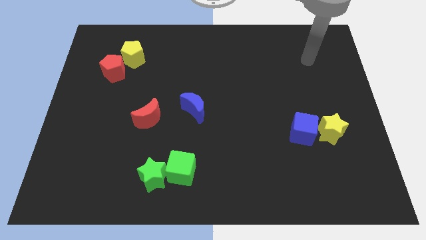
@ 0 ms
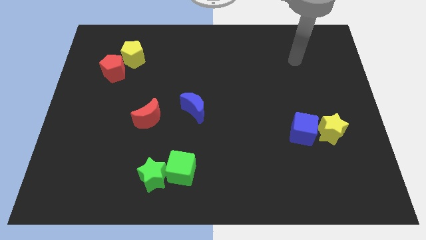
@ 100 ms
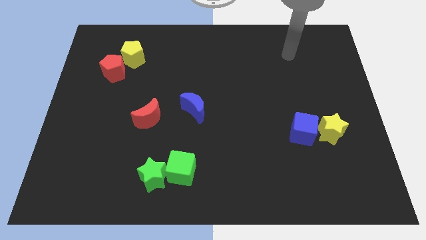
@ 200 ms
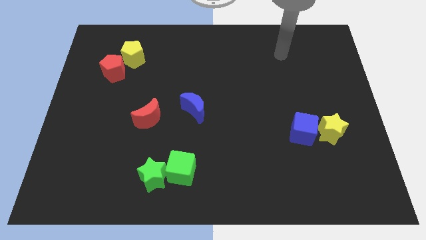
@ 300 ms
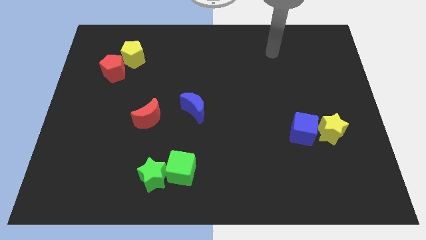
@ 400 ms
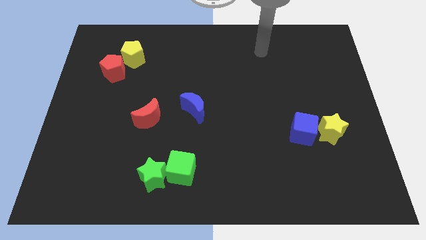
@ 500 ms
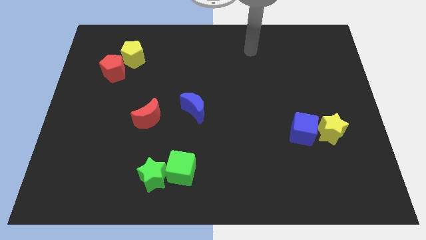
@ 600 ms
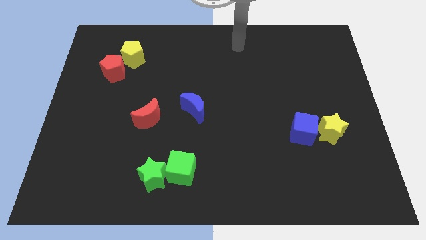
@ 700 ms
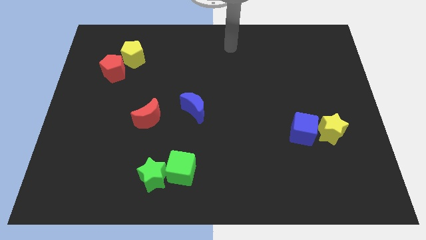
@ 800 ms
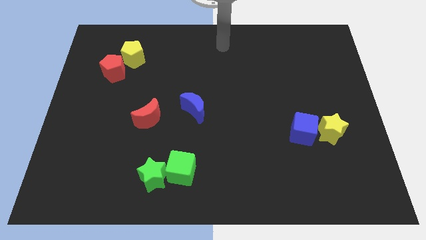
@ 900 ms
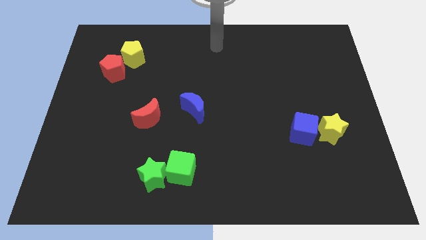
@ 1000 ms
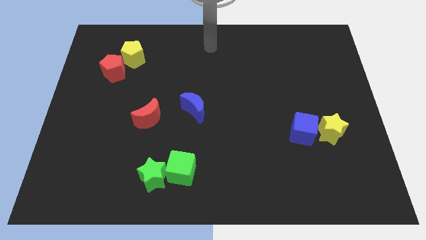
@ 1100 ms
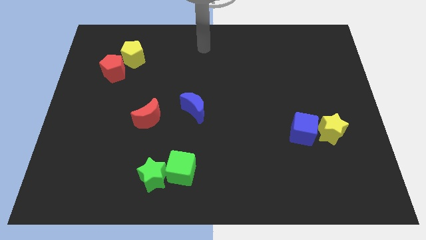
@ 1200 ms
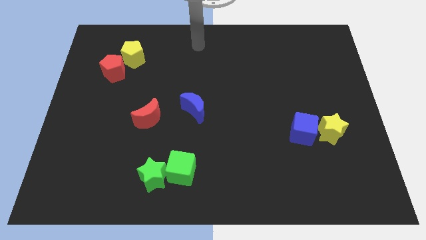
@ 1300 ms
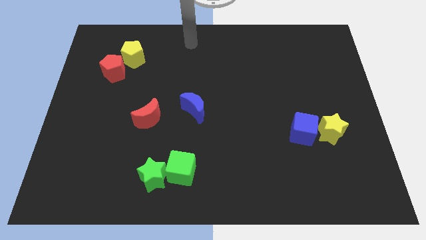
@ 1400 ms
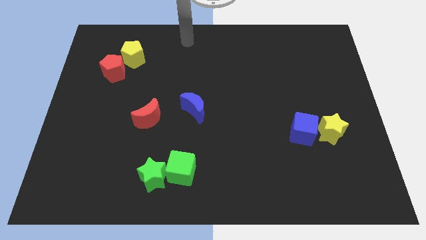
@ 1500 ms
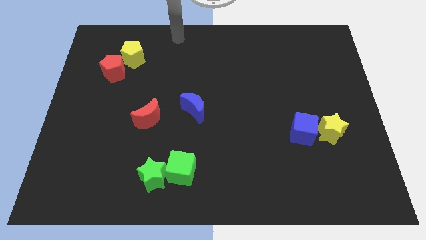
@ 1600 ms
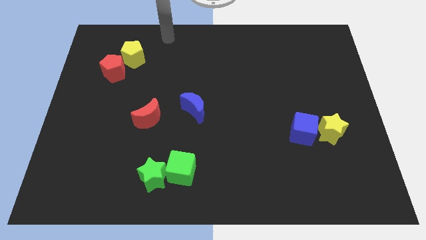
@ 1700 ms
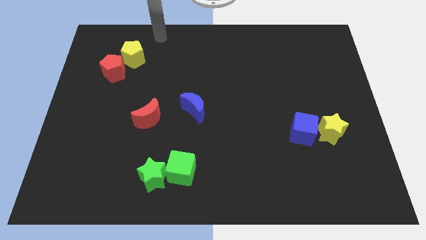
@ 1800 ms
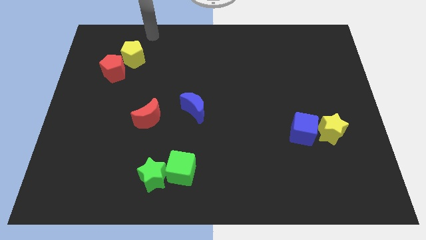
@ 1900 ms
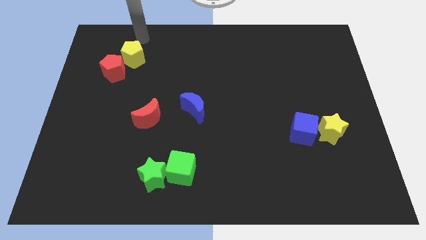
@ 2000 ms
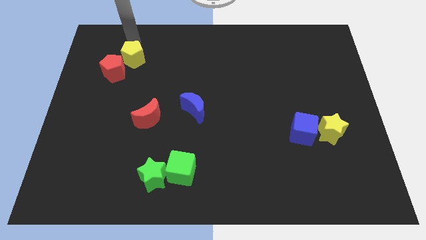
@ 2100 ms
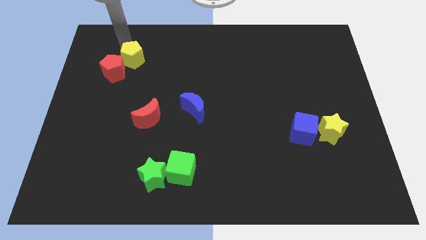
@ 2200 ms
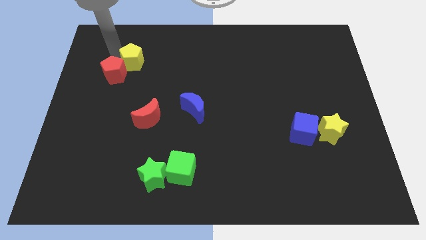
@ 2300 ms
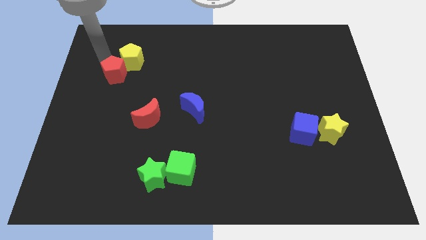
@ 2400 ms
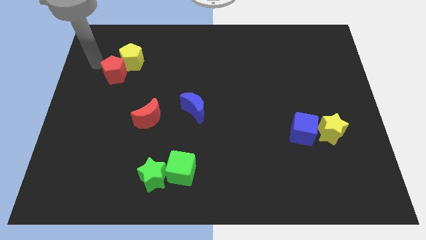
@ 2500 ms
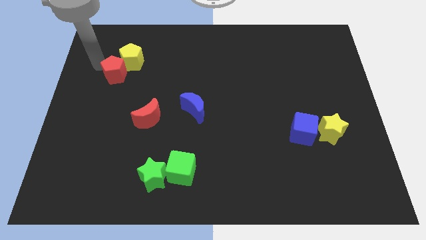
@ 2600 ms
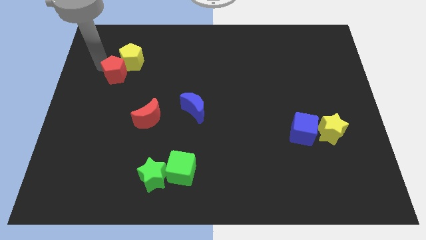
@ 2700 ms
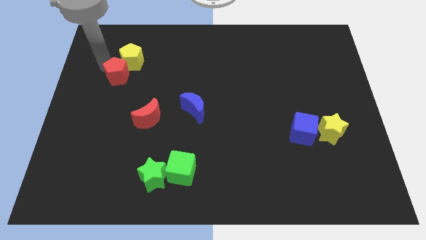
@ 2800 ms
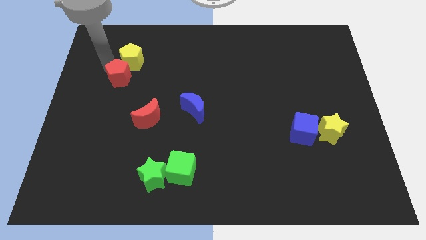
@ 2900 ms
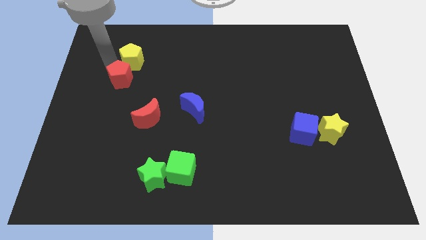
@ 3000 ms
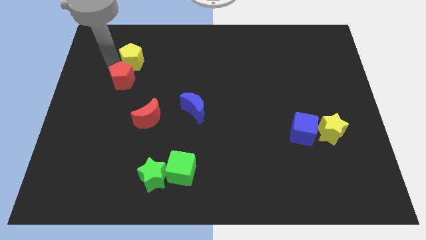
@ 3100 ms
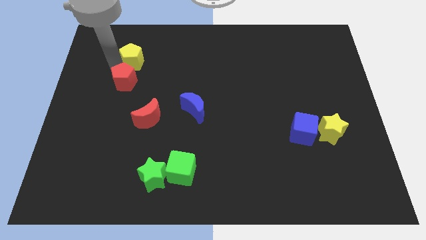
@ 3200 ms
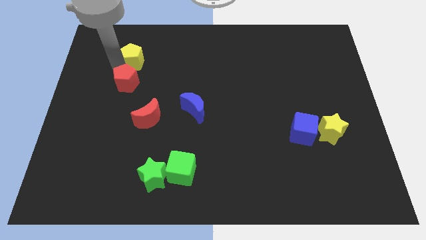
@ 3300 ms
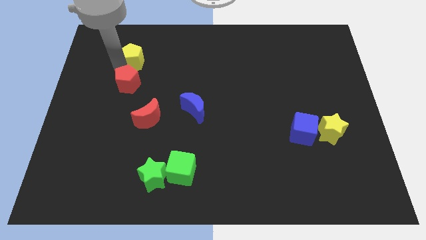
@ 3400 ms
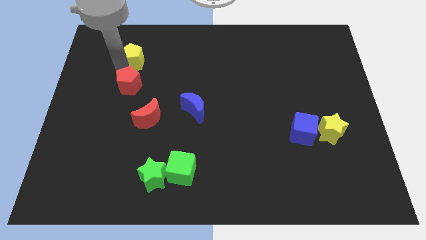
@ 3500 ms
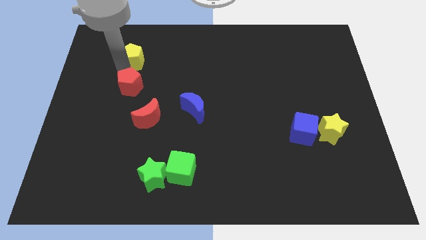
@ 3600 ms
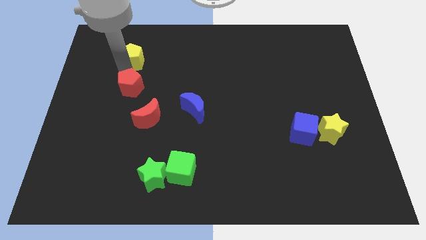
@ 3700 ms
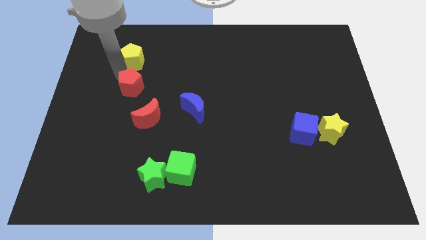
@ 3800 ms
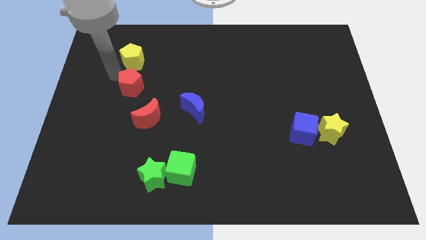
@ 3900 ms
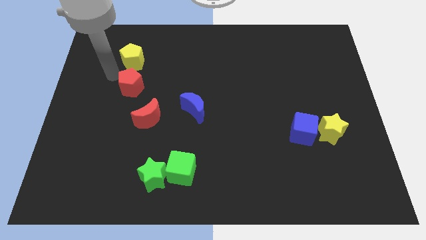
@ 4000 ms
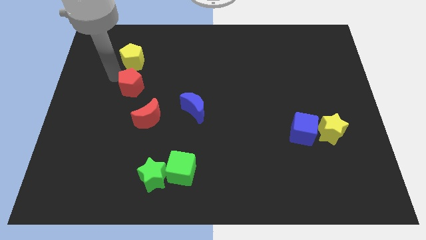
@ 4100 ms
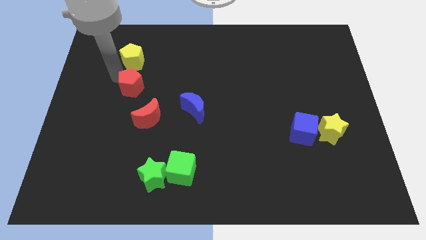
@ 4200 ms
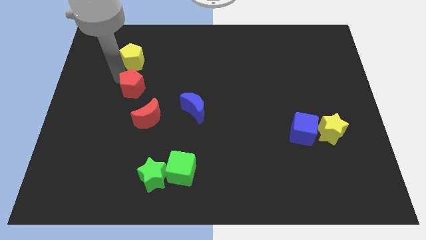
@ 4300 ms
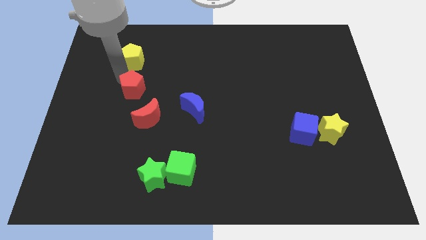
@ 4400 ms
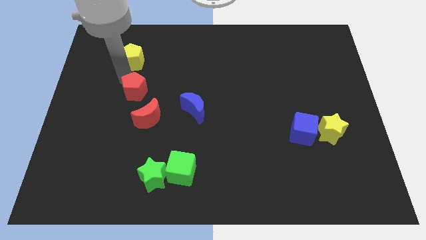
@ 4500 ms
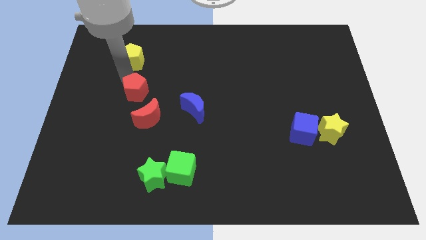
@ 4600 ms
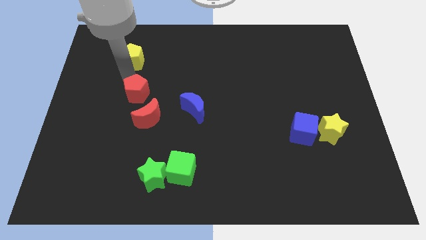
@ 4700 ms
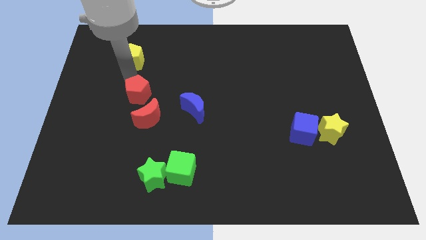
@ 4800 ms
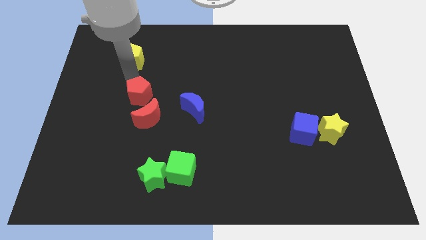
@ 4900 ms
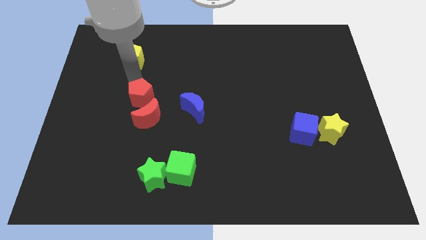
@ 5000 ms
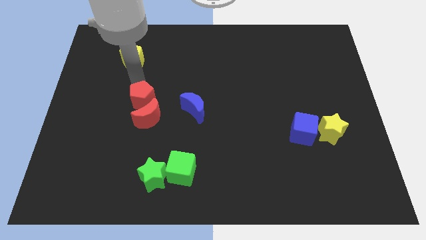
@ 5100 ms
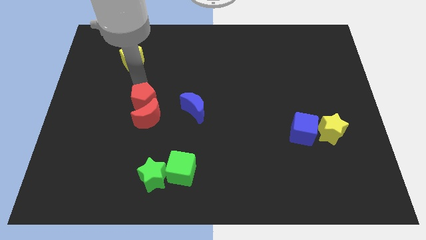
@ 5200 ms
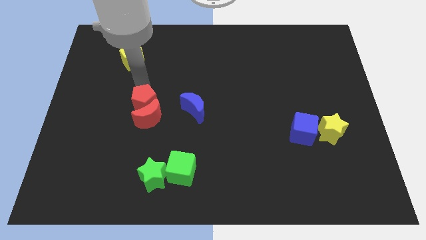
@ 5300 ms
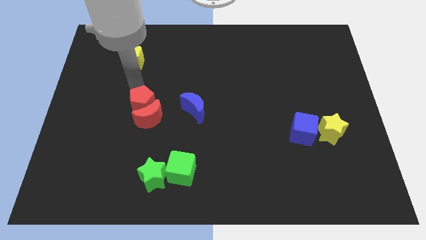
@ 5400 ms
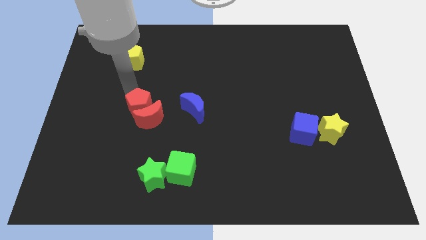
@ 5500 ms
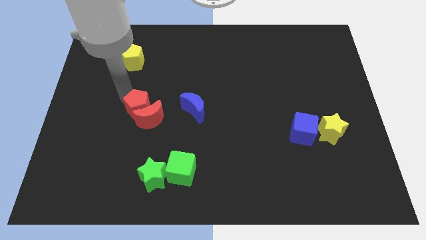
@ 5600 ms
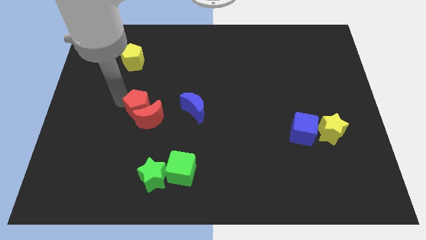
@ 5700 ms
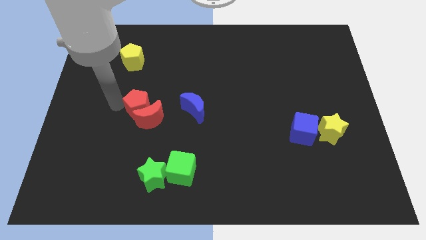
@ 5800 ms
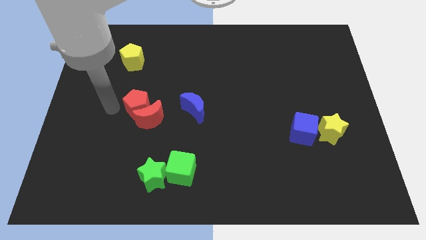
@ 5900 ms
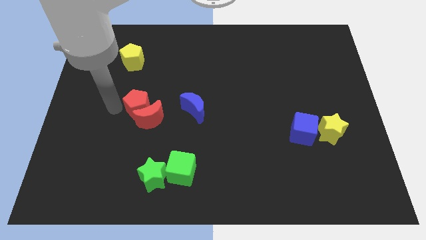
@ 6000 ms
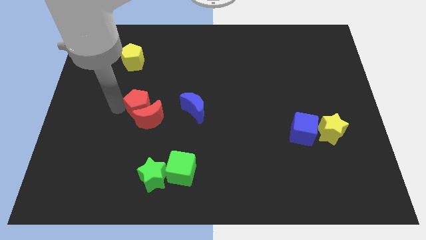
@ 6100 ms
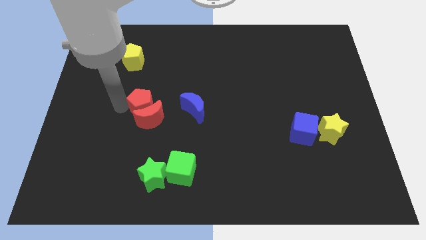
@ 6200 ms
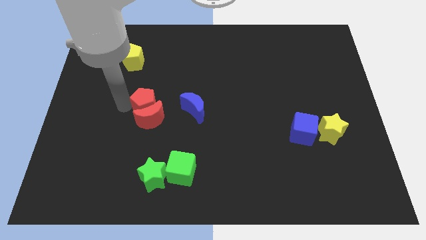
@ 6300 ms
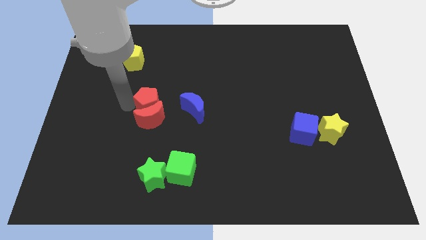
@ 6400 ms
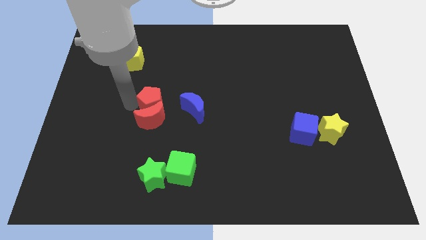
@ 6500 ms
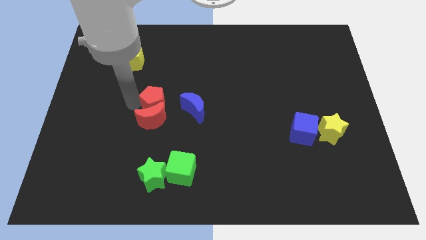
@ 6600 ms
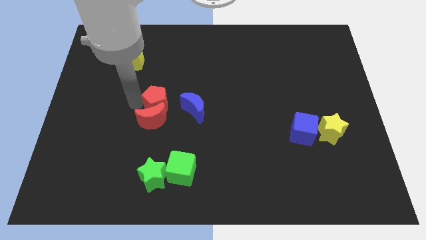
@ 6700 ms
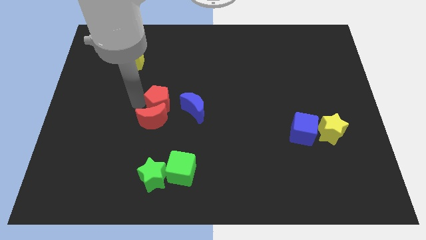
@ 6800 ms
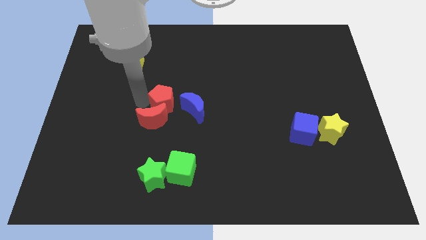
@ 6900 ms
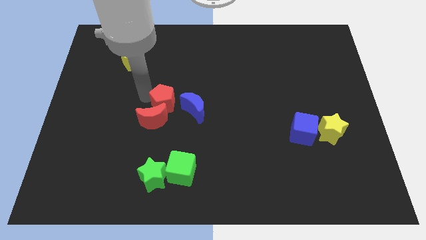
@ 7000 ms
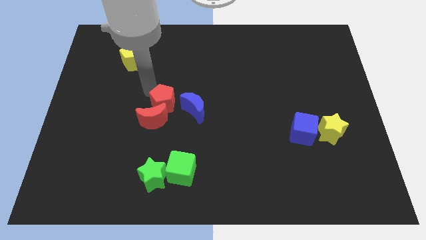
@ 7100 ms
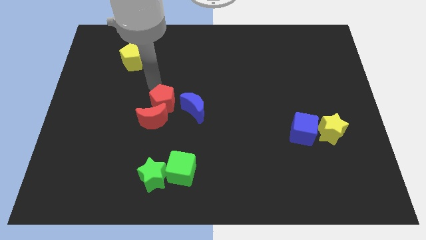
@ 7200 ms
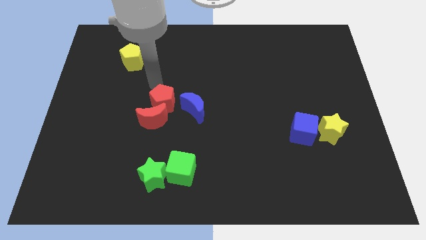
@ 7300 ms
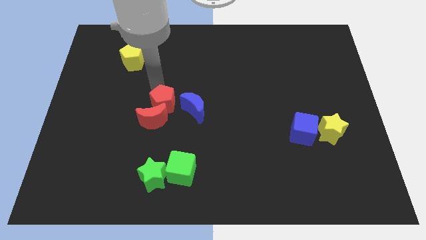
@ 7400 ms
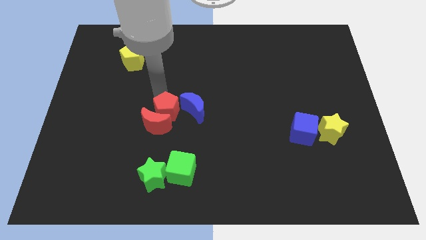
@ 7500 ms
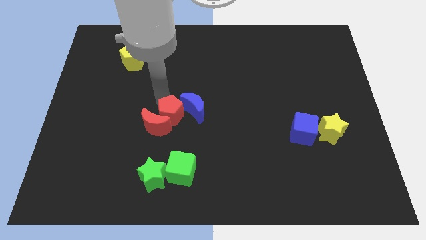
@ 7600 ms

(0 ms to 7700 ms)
slide the red pentagon diagonally down and right

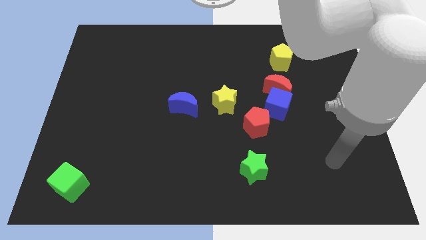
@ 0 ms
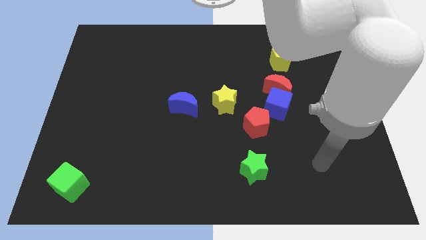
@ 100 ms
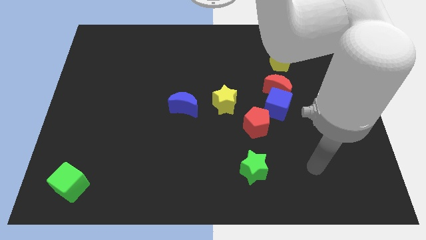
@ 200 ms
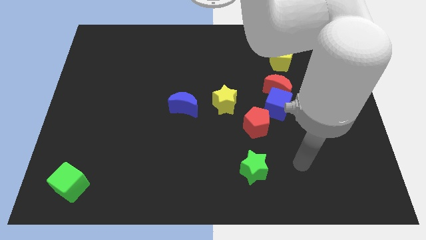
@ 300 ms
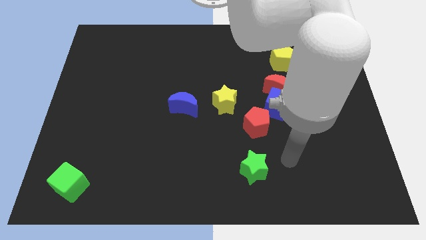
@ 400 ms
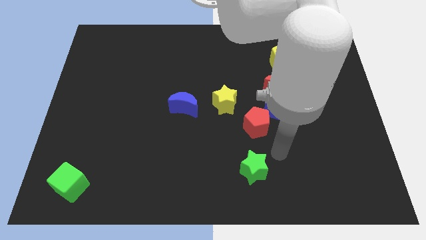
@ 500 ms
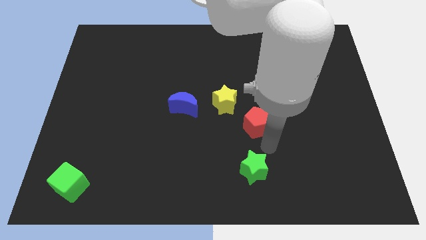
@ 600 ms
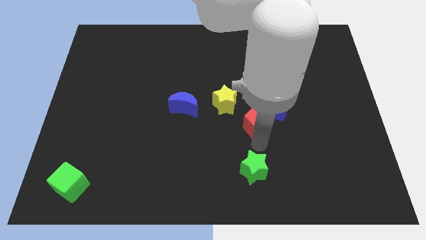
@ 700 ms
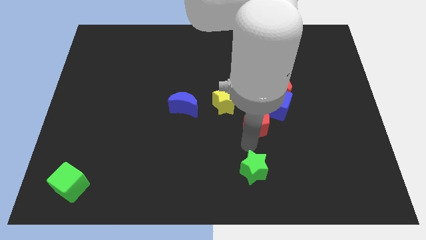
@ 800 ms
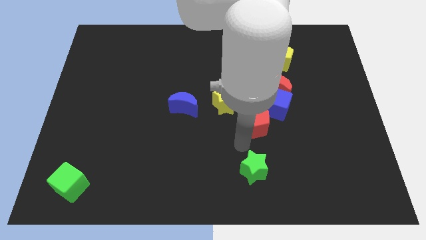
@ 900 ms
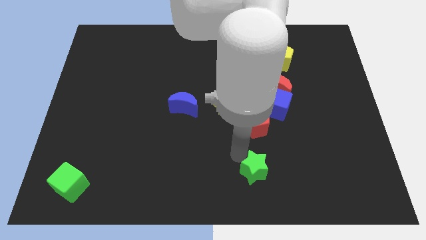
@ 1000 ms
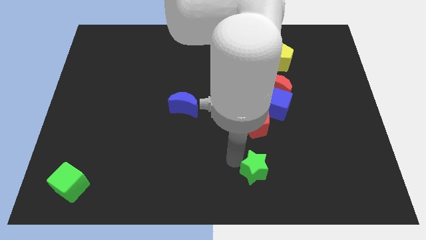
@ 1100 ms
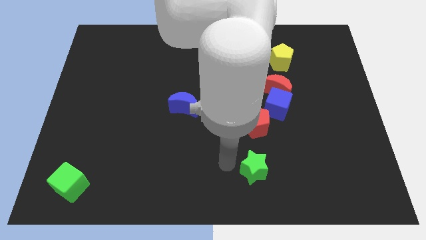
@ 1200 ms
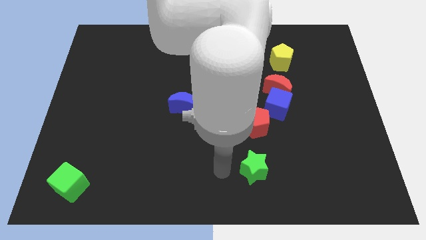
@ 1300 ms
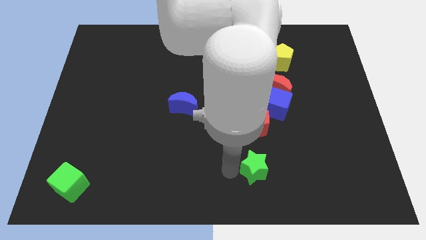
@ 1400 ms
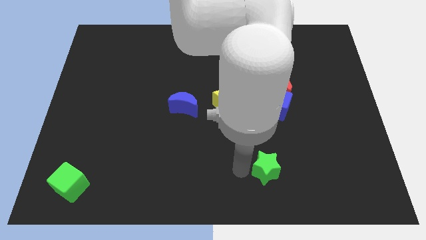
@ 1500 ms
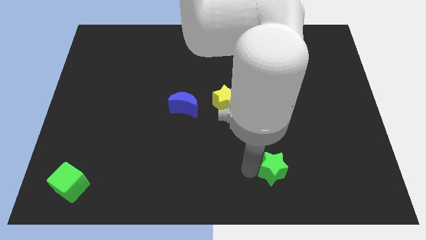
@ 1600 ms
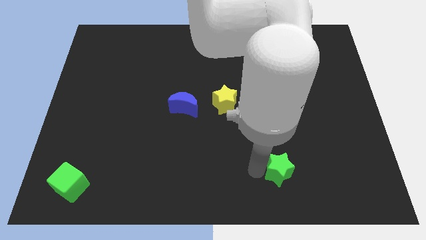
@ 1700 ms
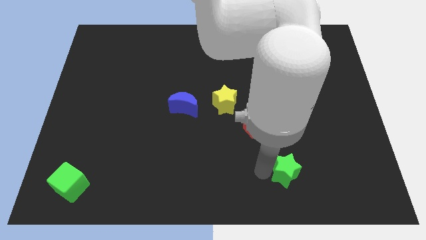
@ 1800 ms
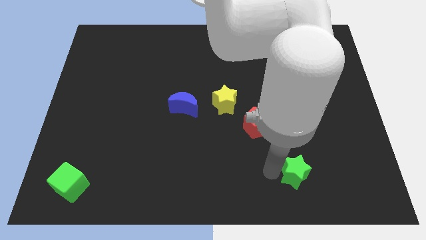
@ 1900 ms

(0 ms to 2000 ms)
push the green star right a little bit
